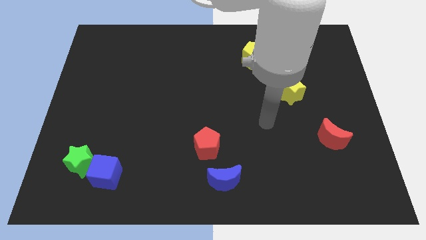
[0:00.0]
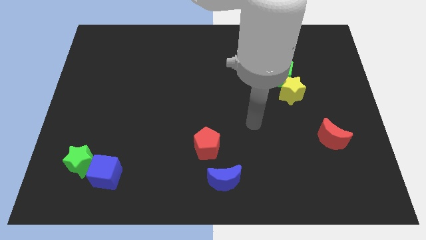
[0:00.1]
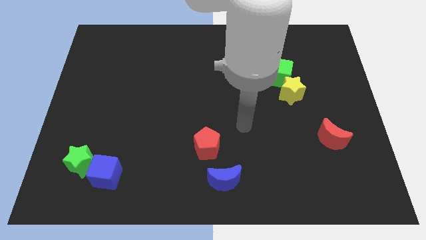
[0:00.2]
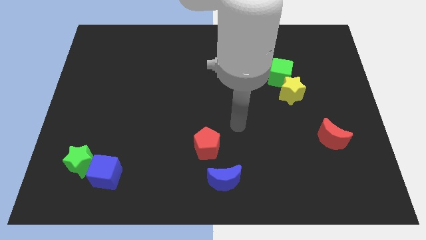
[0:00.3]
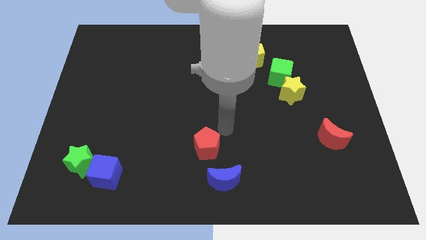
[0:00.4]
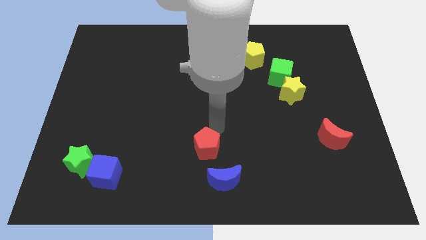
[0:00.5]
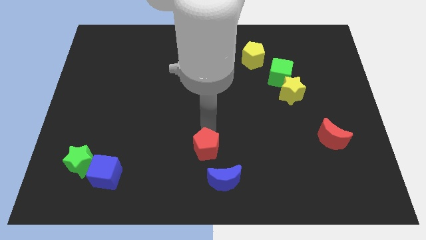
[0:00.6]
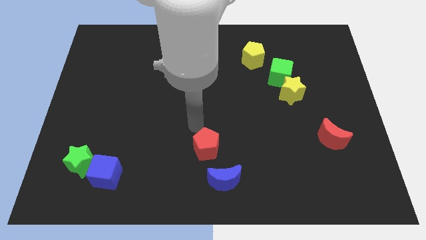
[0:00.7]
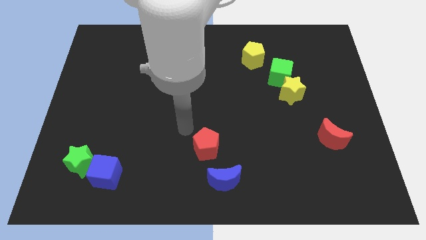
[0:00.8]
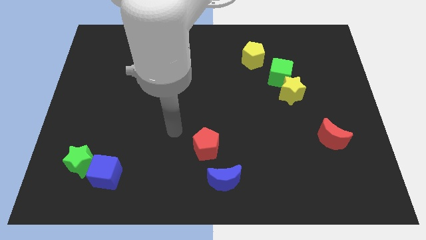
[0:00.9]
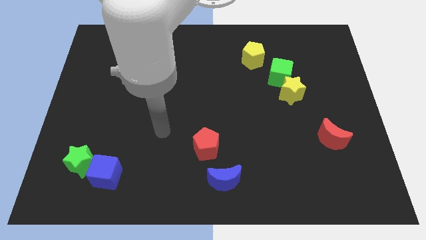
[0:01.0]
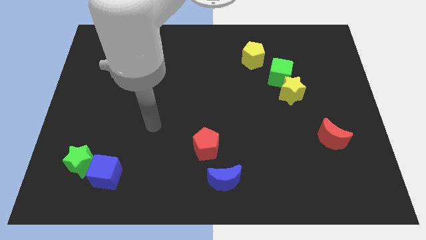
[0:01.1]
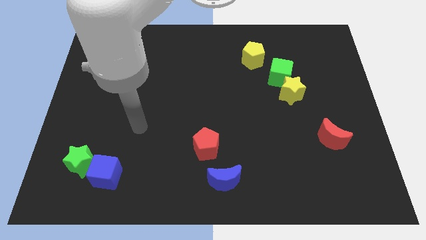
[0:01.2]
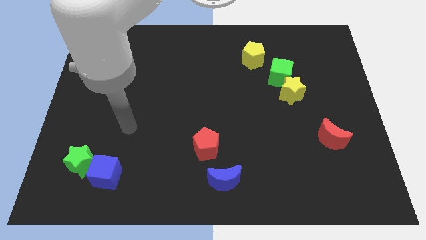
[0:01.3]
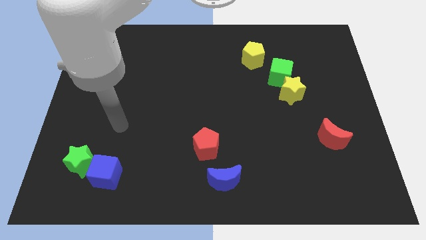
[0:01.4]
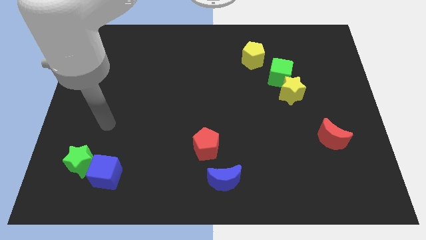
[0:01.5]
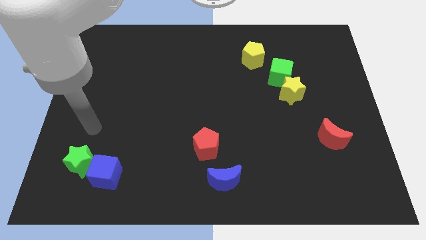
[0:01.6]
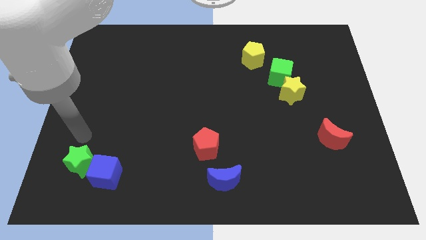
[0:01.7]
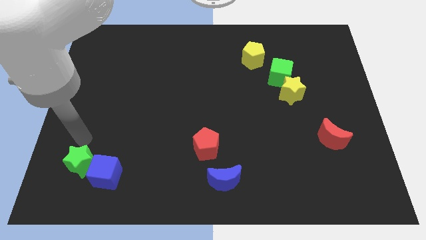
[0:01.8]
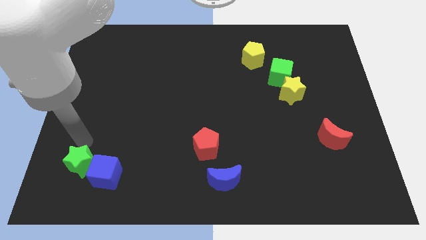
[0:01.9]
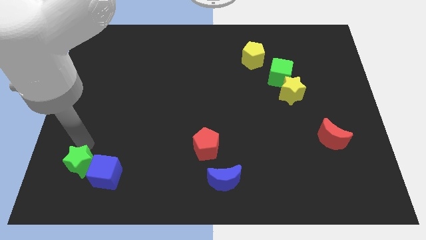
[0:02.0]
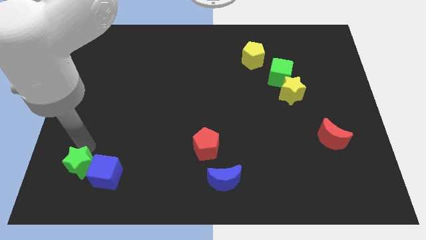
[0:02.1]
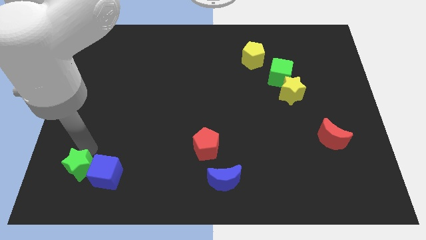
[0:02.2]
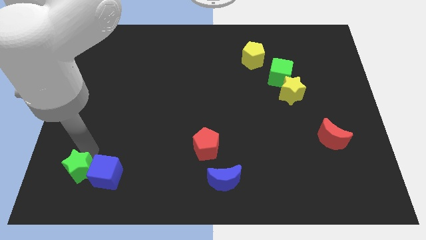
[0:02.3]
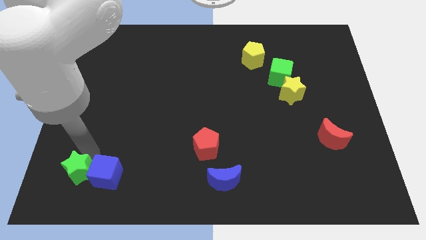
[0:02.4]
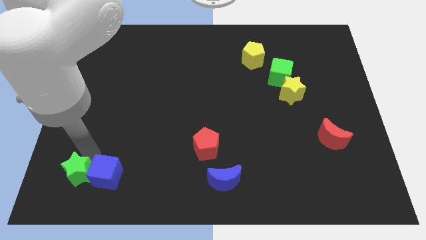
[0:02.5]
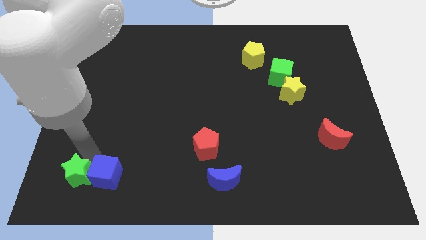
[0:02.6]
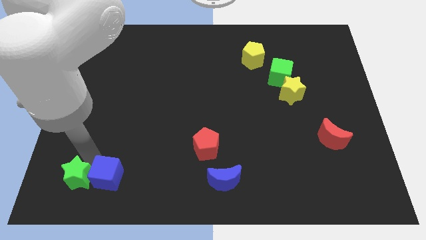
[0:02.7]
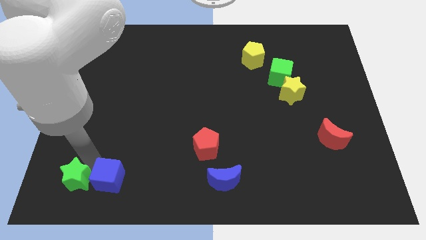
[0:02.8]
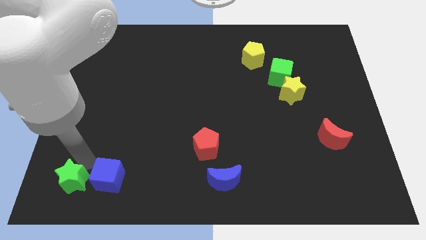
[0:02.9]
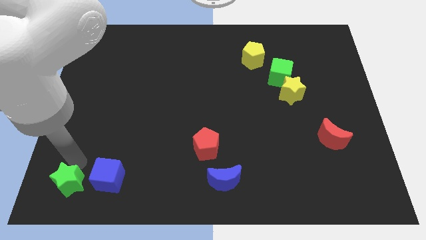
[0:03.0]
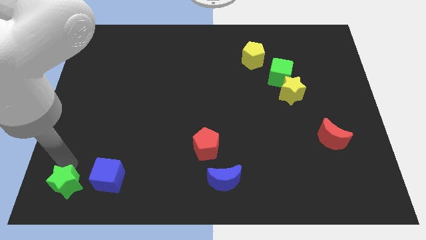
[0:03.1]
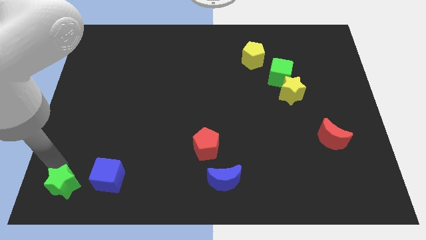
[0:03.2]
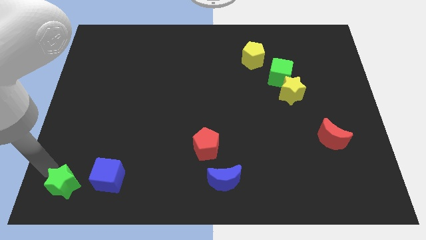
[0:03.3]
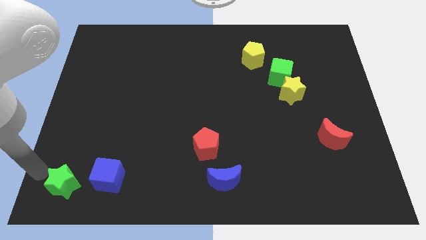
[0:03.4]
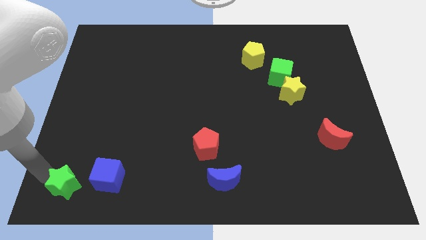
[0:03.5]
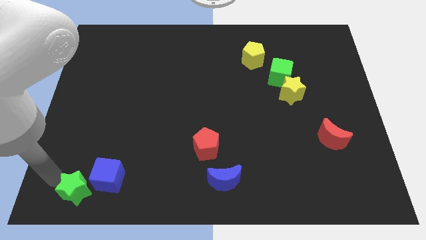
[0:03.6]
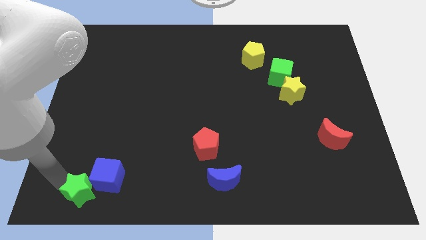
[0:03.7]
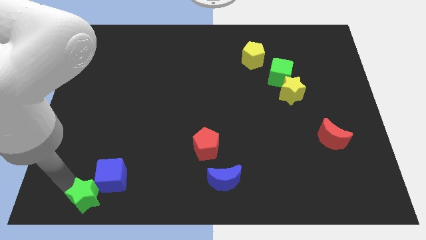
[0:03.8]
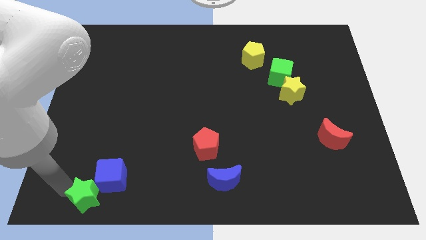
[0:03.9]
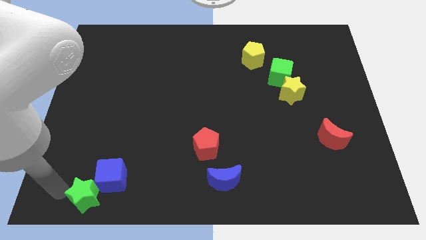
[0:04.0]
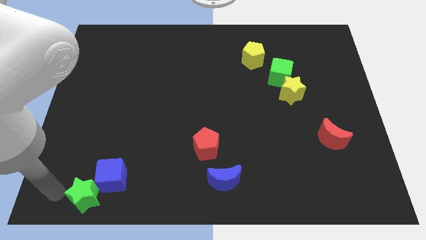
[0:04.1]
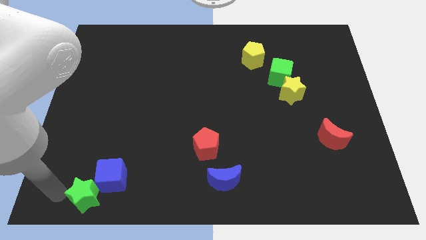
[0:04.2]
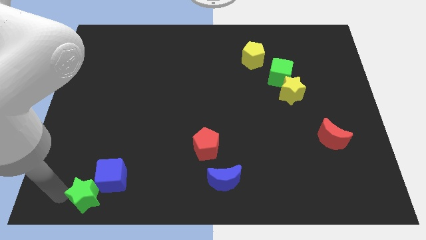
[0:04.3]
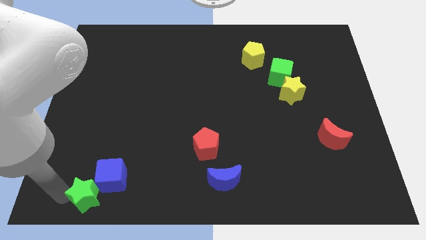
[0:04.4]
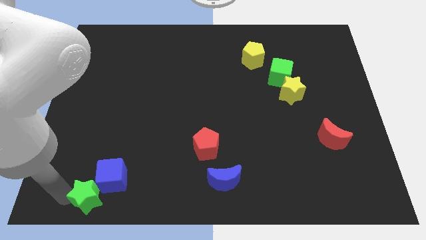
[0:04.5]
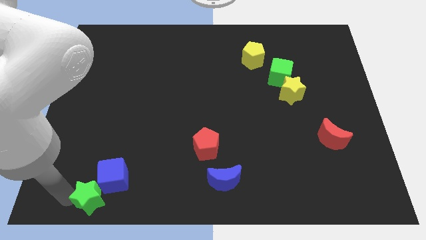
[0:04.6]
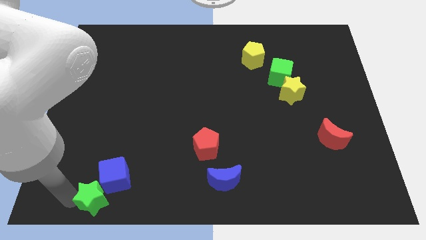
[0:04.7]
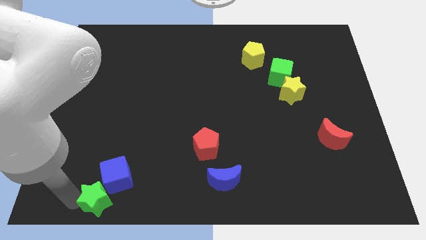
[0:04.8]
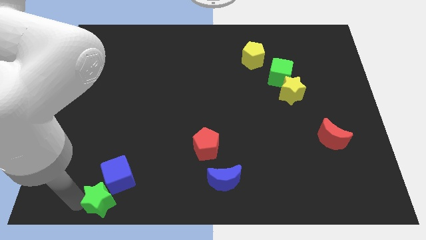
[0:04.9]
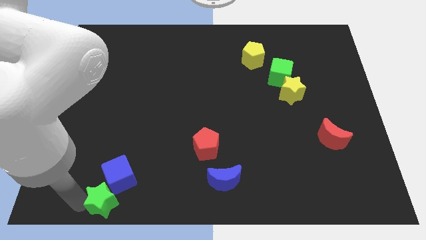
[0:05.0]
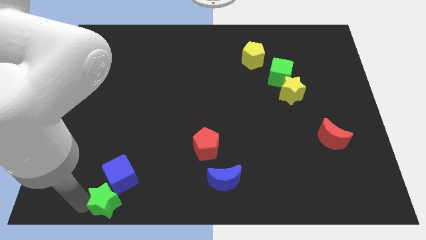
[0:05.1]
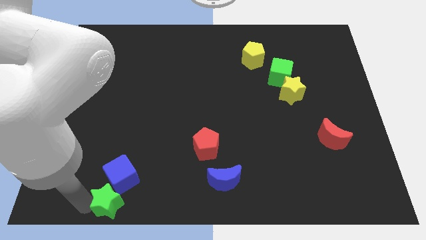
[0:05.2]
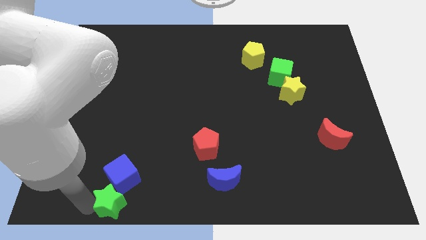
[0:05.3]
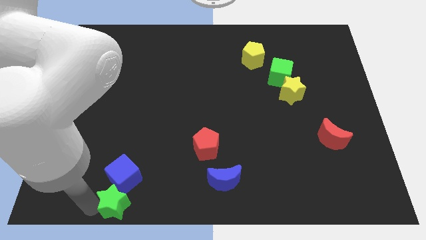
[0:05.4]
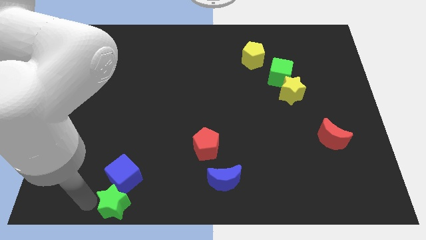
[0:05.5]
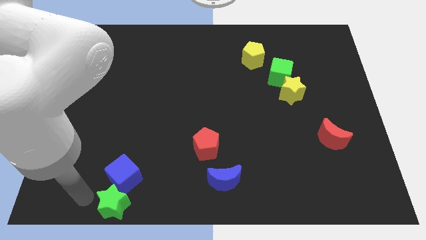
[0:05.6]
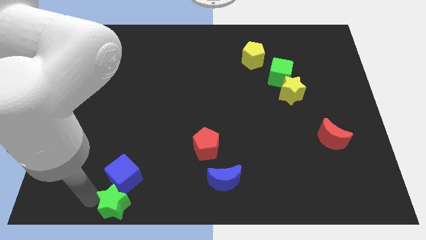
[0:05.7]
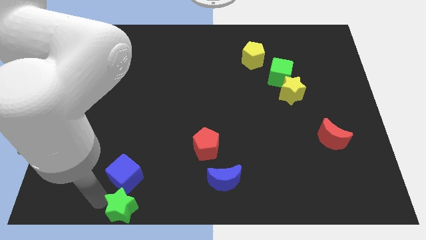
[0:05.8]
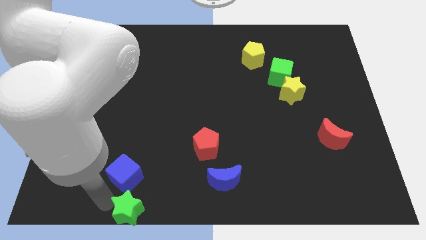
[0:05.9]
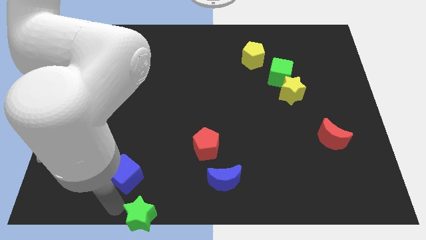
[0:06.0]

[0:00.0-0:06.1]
move the green star to the bottom side
